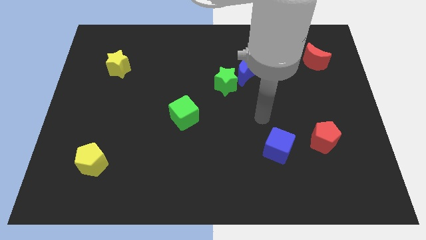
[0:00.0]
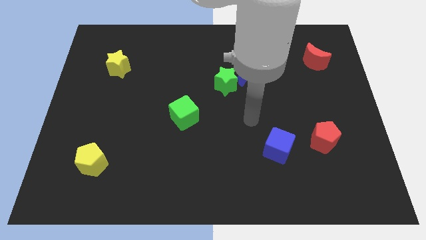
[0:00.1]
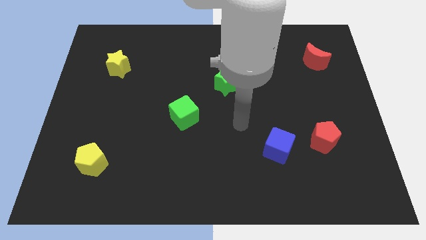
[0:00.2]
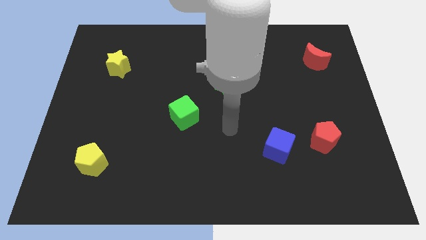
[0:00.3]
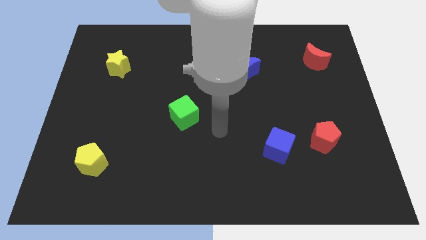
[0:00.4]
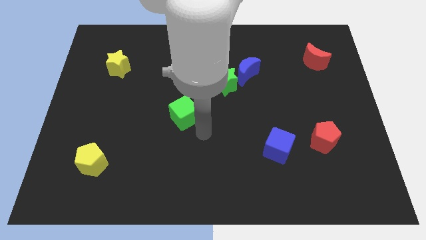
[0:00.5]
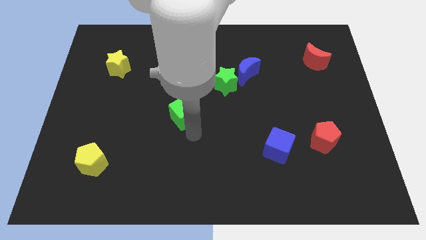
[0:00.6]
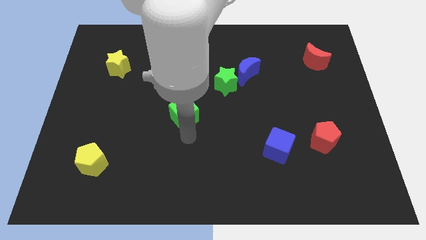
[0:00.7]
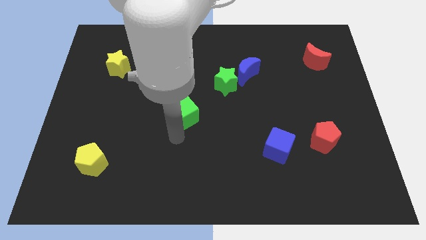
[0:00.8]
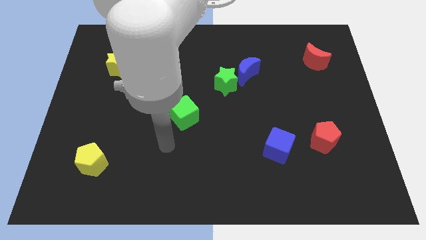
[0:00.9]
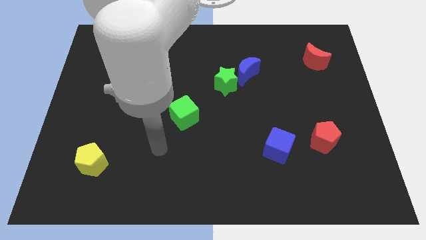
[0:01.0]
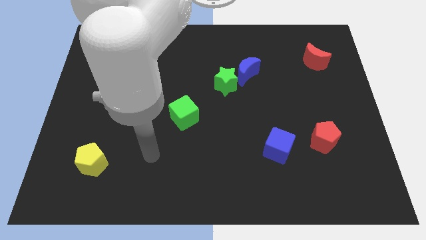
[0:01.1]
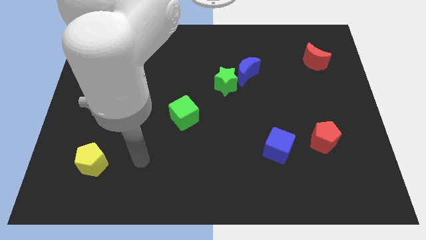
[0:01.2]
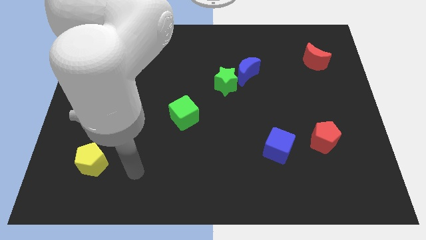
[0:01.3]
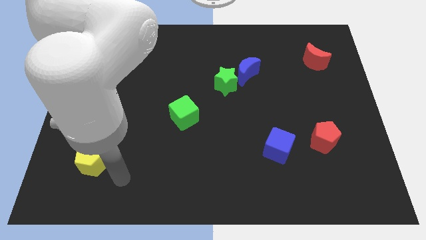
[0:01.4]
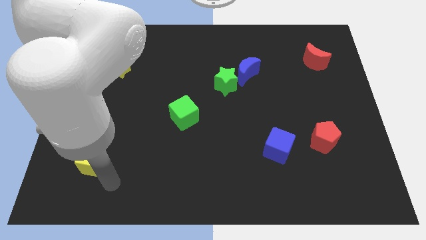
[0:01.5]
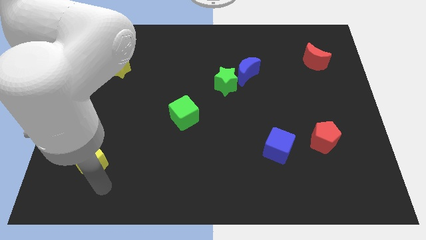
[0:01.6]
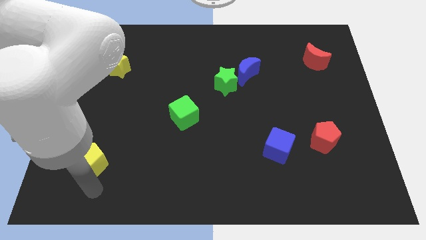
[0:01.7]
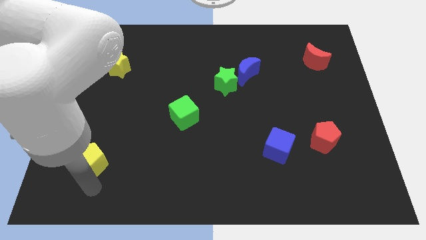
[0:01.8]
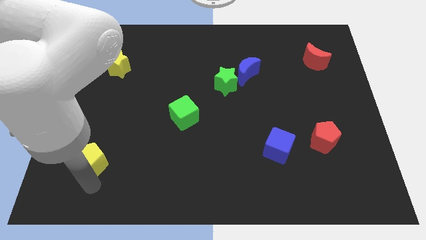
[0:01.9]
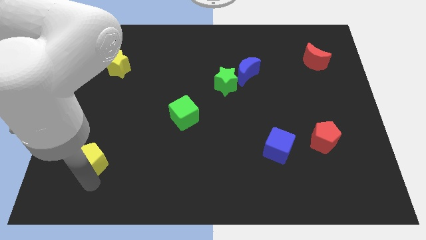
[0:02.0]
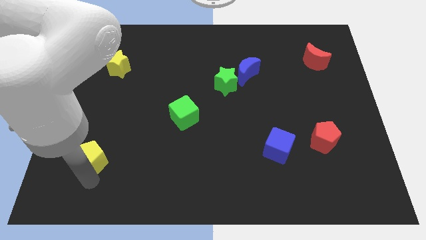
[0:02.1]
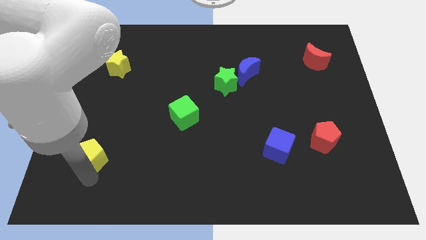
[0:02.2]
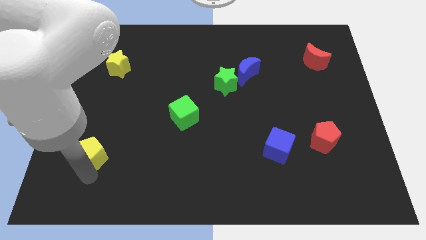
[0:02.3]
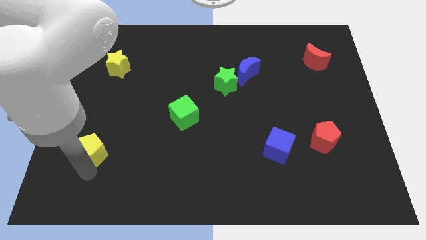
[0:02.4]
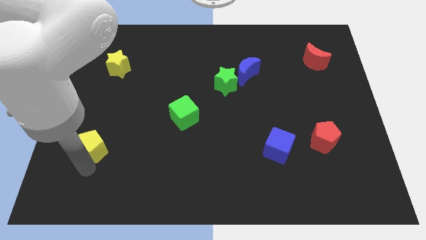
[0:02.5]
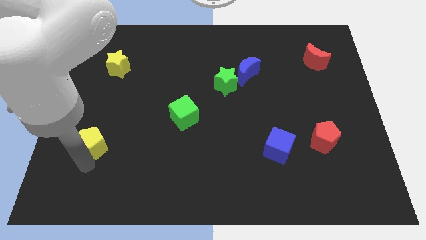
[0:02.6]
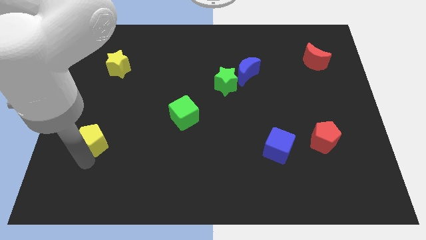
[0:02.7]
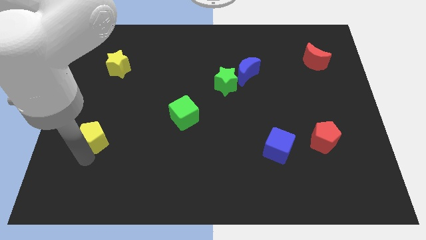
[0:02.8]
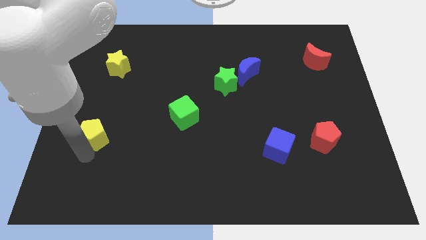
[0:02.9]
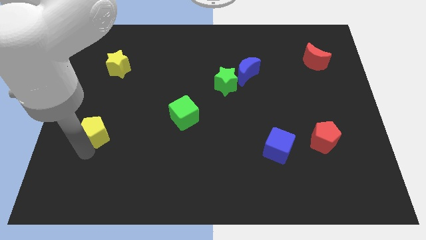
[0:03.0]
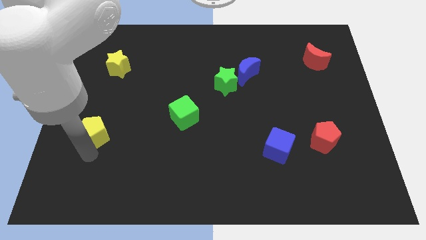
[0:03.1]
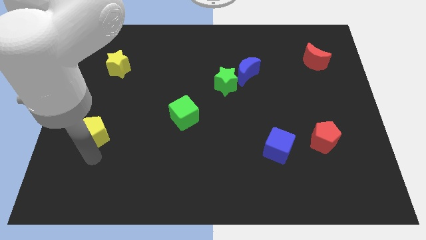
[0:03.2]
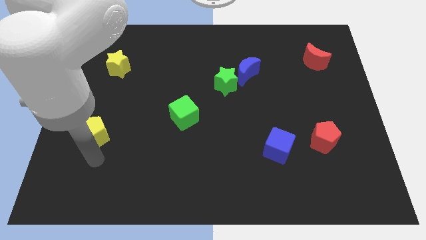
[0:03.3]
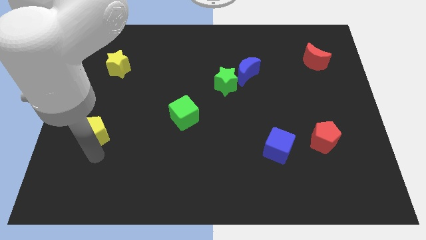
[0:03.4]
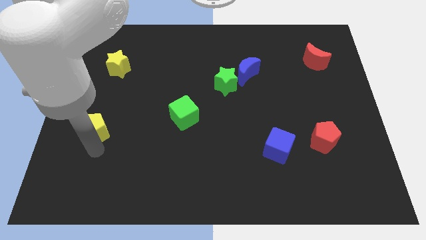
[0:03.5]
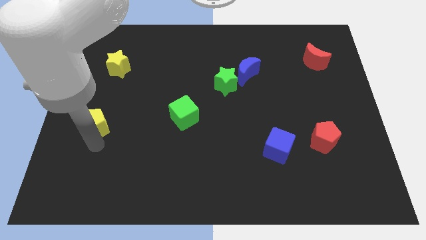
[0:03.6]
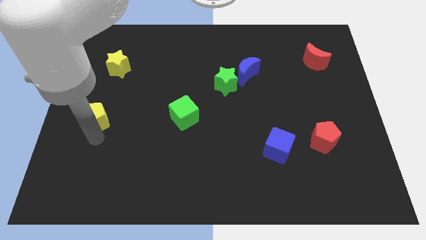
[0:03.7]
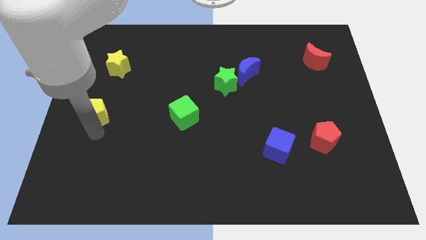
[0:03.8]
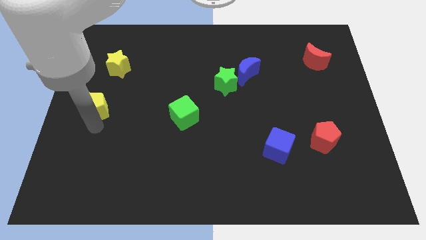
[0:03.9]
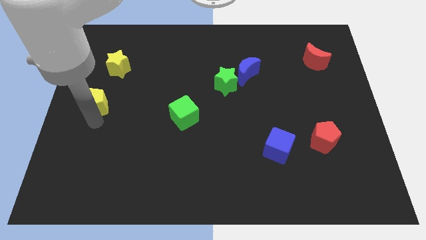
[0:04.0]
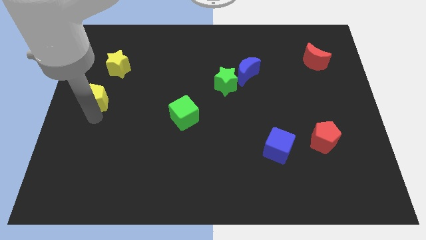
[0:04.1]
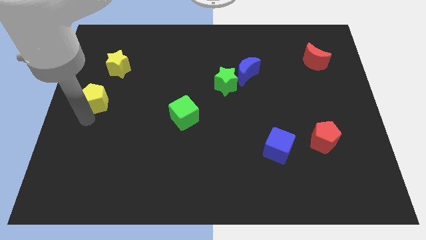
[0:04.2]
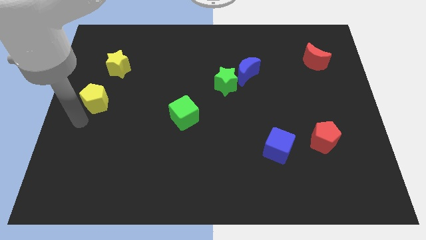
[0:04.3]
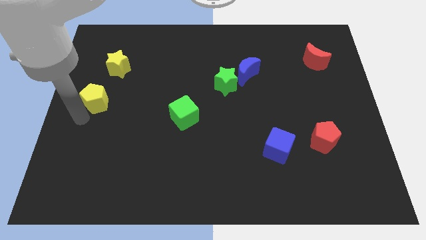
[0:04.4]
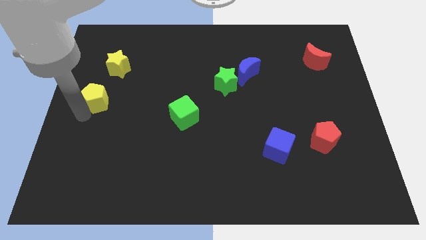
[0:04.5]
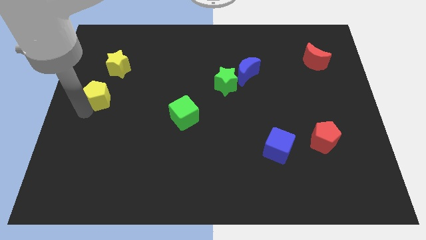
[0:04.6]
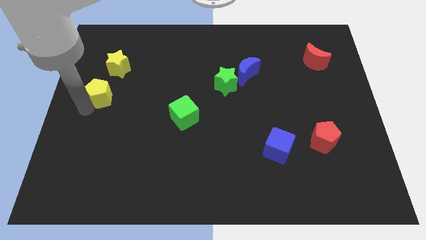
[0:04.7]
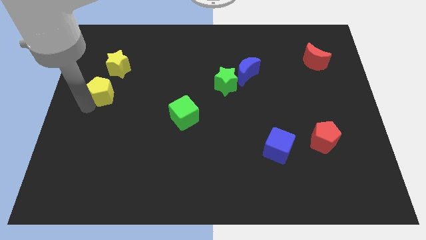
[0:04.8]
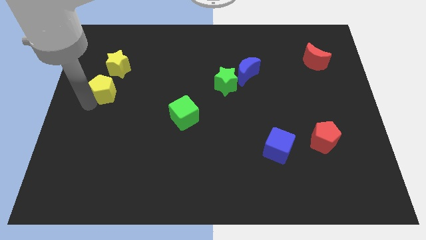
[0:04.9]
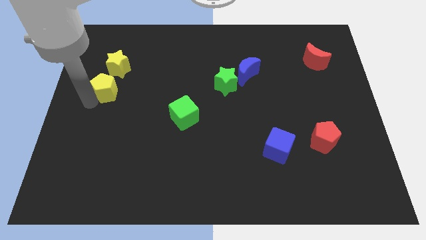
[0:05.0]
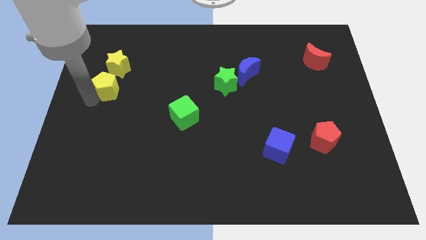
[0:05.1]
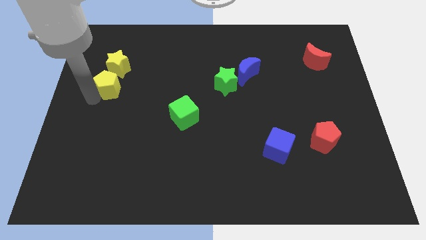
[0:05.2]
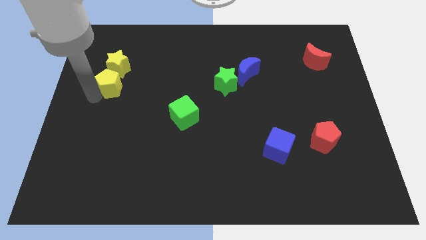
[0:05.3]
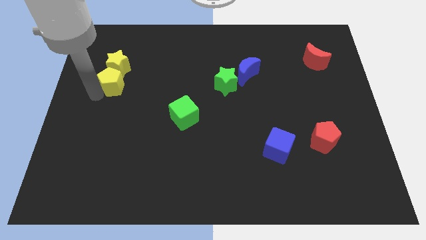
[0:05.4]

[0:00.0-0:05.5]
push the yellow pentagon close to the yellow star

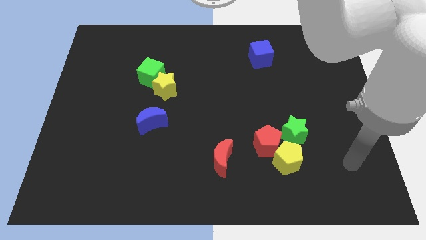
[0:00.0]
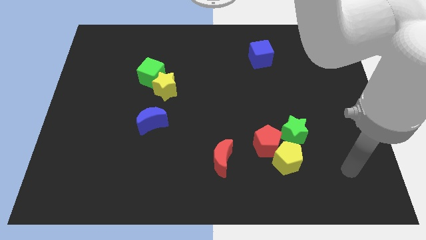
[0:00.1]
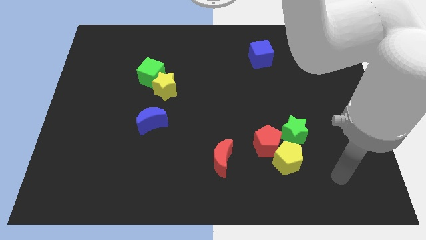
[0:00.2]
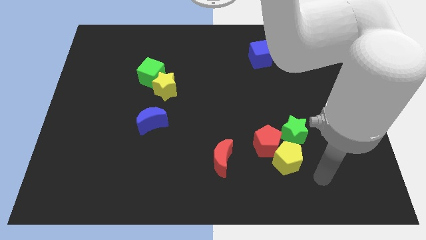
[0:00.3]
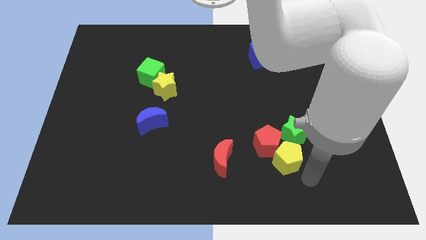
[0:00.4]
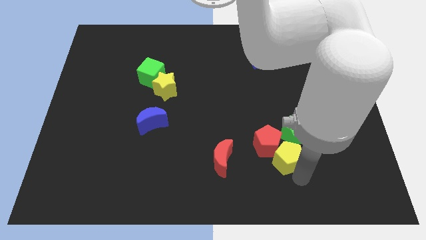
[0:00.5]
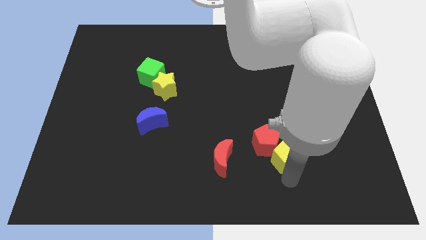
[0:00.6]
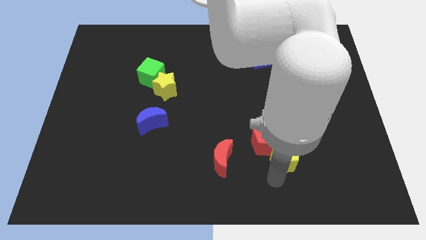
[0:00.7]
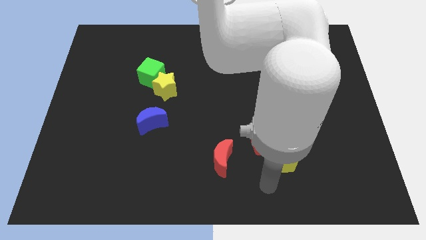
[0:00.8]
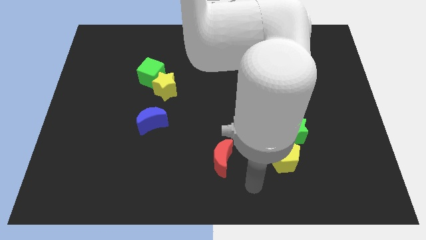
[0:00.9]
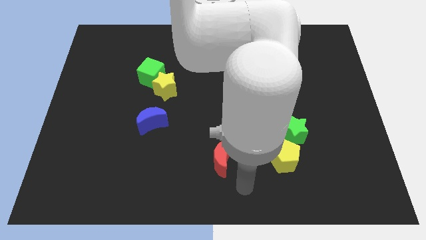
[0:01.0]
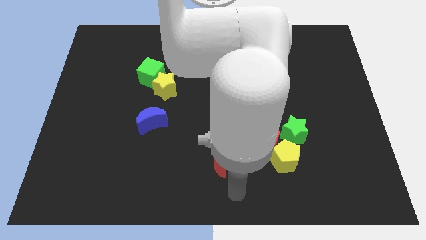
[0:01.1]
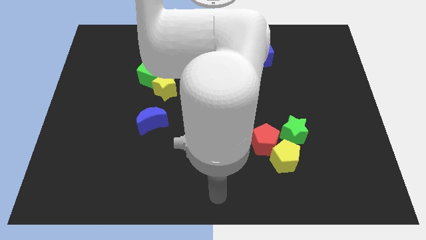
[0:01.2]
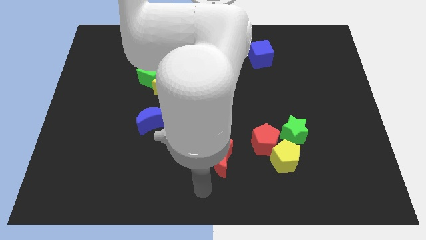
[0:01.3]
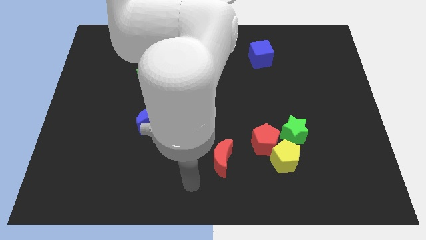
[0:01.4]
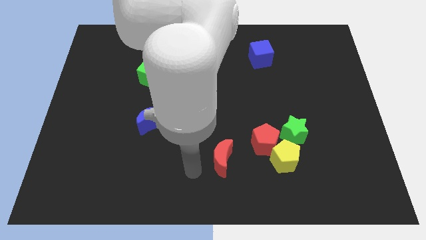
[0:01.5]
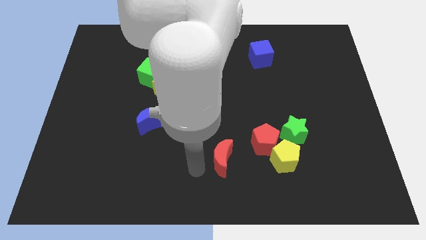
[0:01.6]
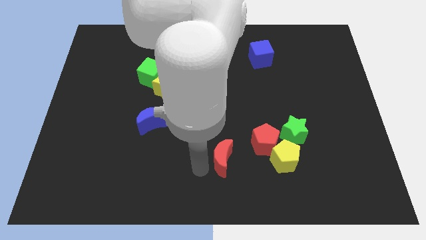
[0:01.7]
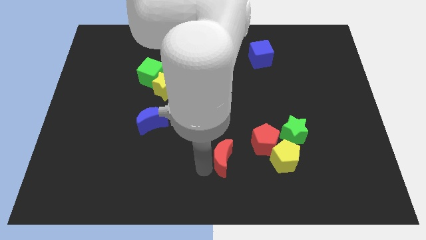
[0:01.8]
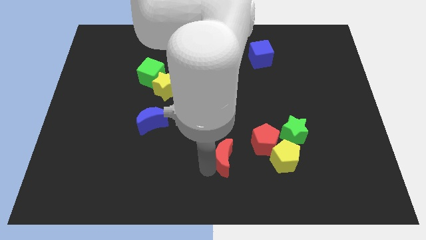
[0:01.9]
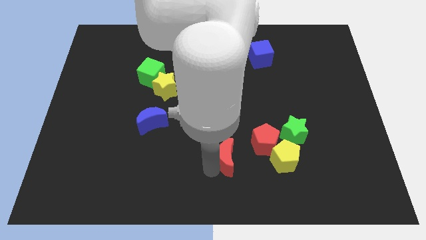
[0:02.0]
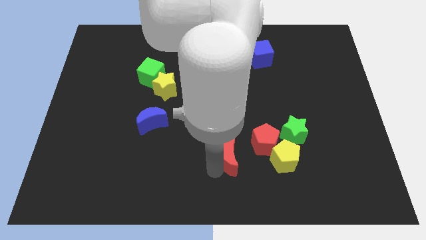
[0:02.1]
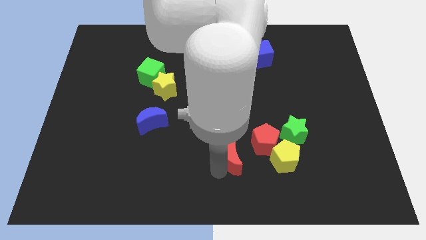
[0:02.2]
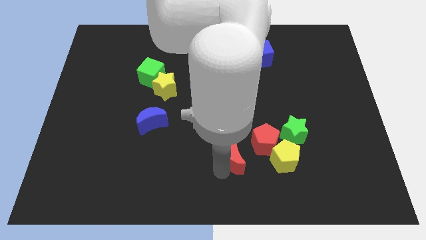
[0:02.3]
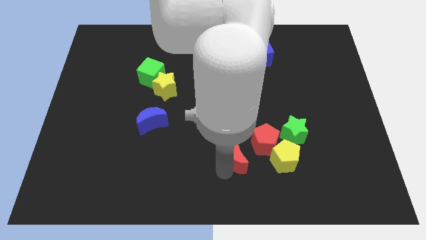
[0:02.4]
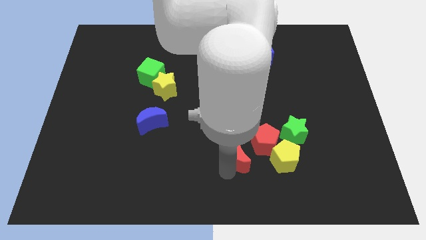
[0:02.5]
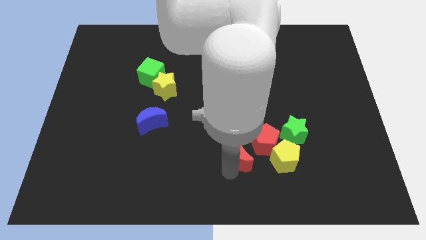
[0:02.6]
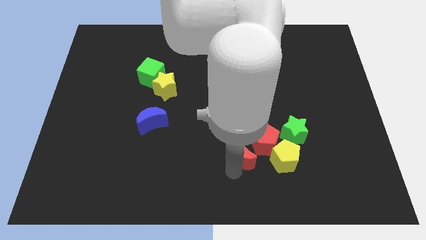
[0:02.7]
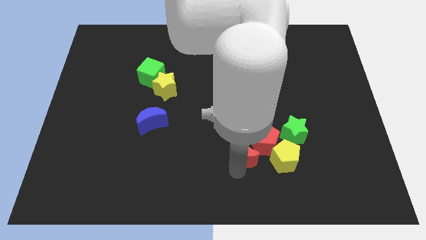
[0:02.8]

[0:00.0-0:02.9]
move the red moon towards the red pentagon
